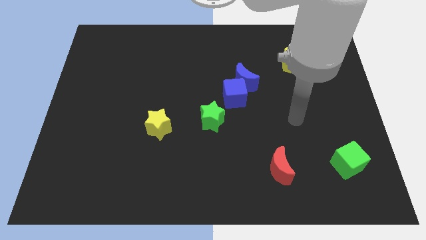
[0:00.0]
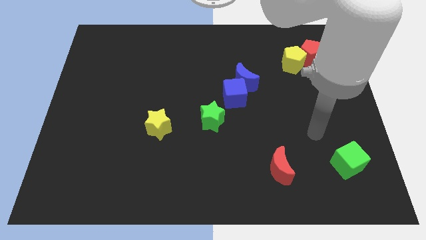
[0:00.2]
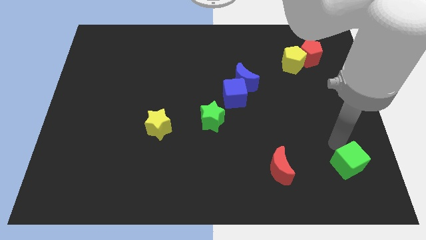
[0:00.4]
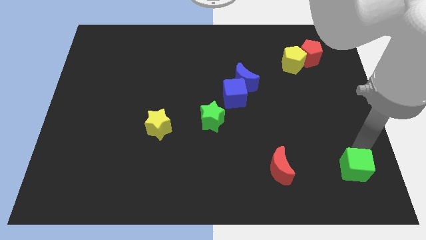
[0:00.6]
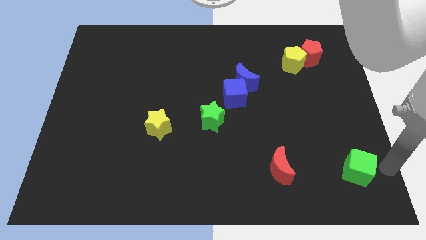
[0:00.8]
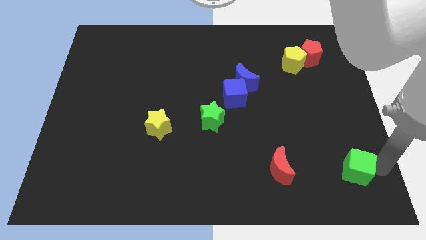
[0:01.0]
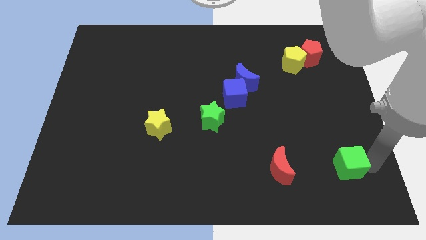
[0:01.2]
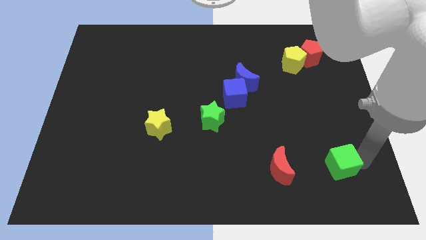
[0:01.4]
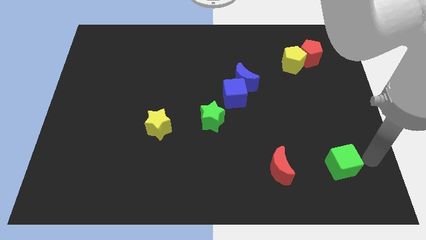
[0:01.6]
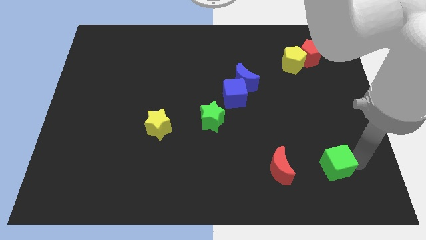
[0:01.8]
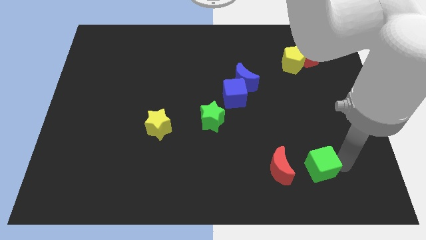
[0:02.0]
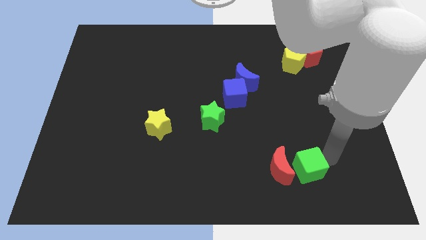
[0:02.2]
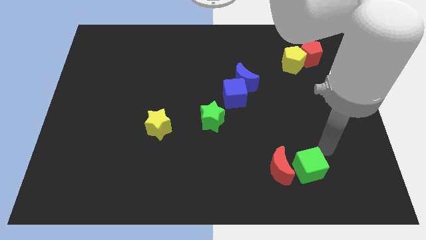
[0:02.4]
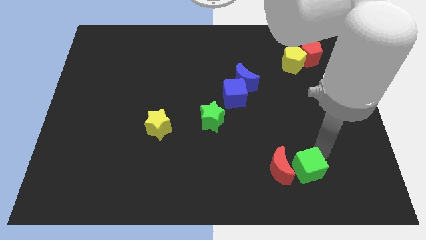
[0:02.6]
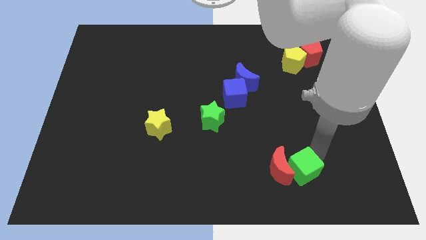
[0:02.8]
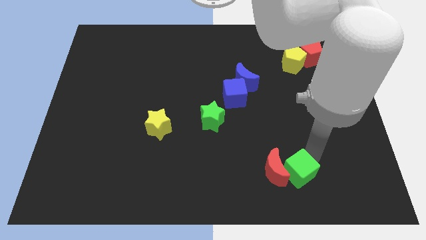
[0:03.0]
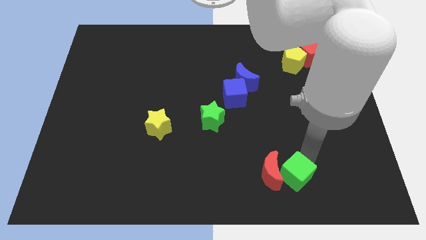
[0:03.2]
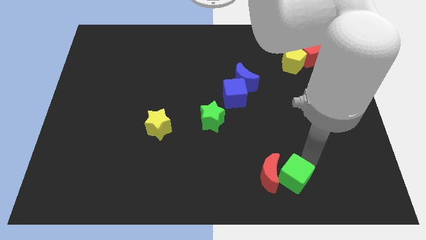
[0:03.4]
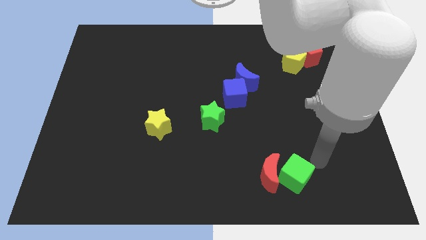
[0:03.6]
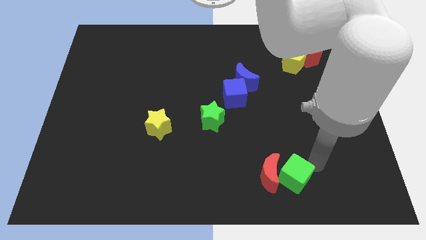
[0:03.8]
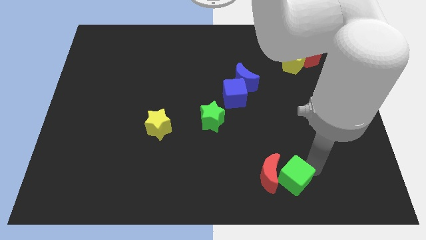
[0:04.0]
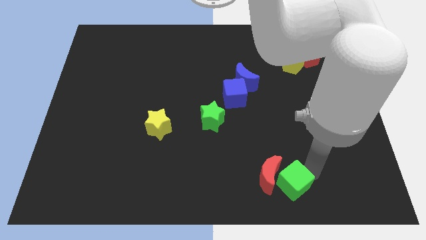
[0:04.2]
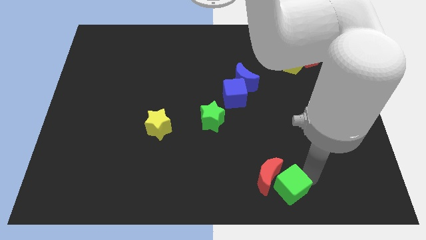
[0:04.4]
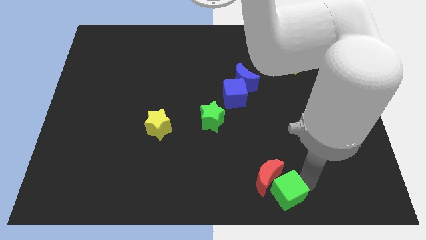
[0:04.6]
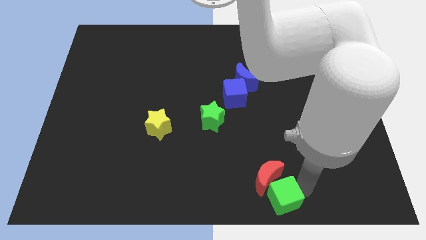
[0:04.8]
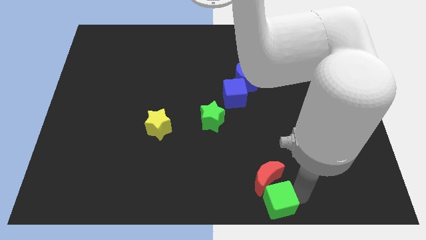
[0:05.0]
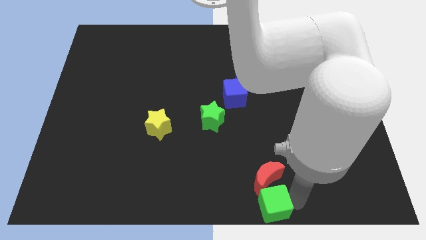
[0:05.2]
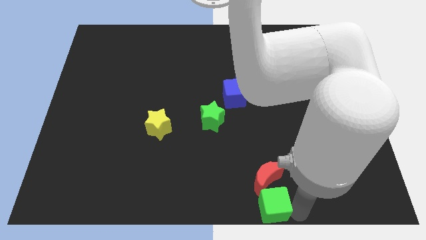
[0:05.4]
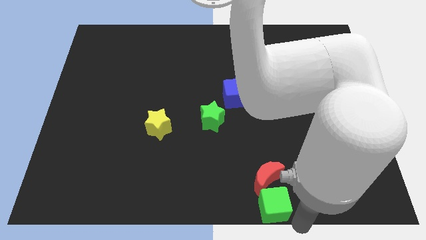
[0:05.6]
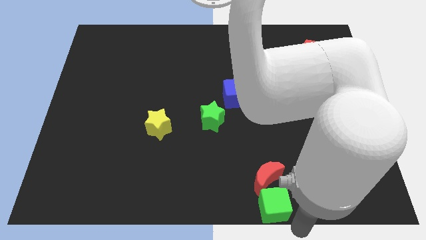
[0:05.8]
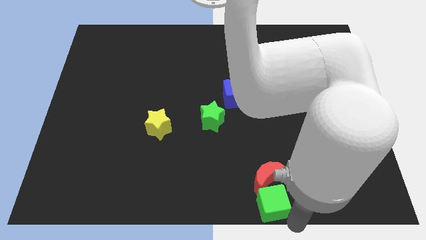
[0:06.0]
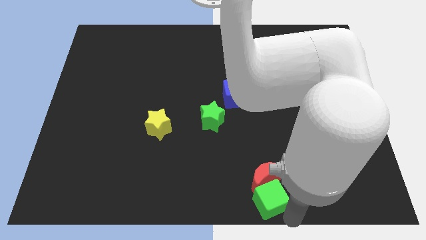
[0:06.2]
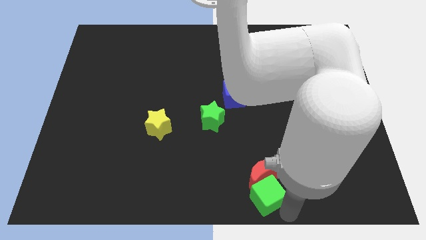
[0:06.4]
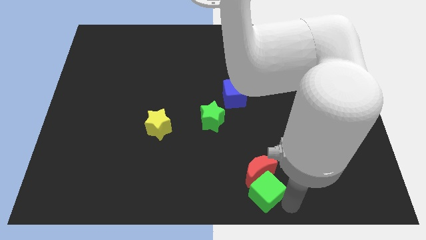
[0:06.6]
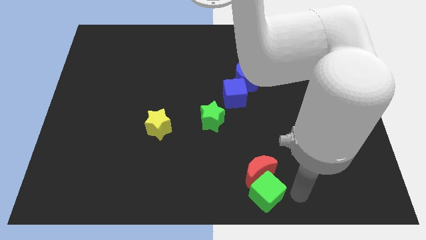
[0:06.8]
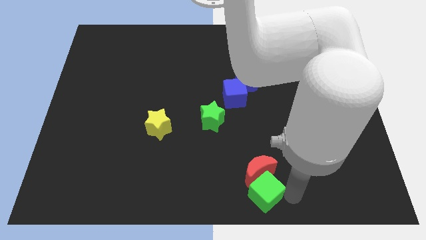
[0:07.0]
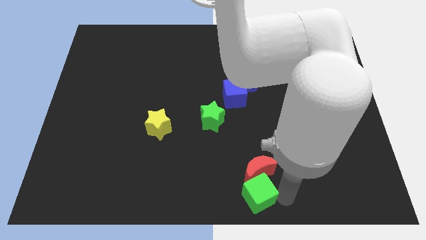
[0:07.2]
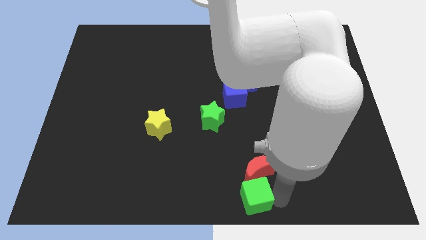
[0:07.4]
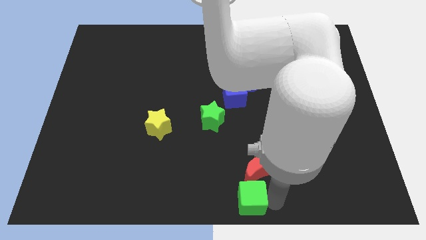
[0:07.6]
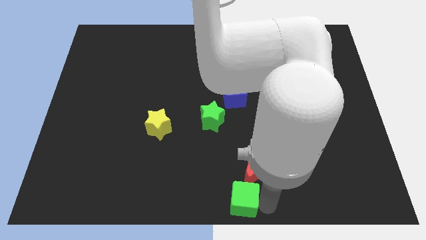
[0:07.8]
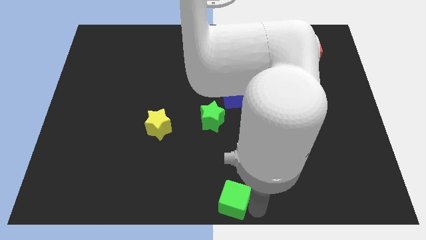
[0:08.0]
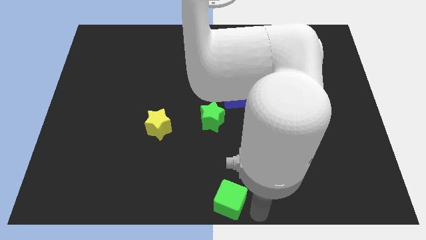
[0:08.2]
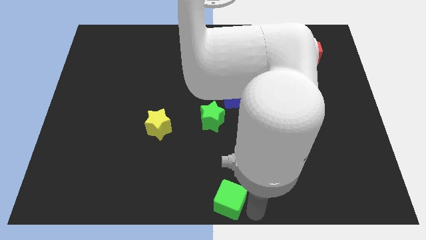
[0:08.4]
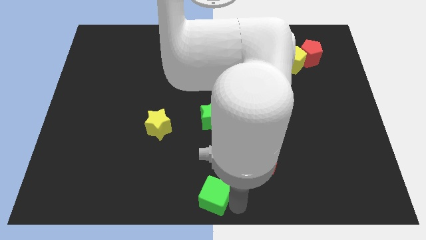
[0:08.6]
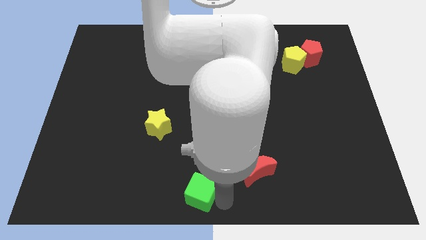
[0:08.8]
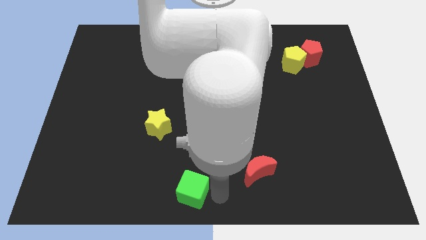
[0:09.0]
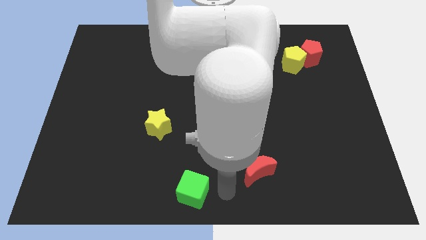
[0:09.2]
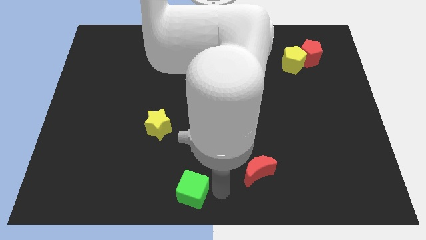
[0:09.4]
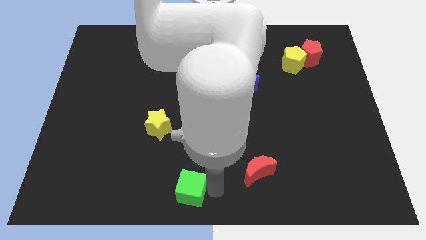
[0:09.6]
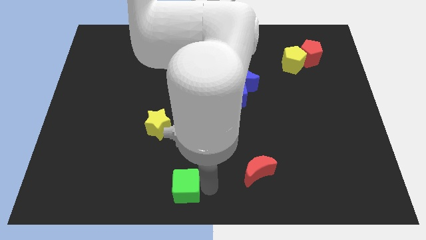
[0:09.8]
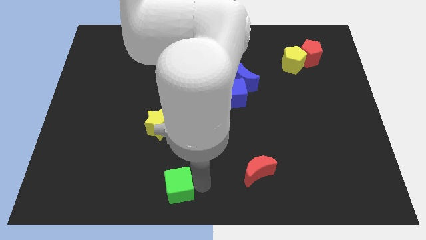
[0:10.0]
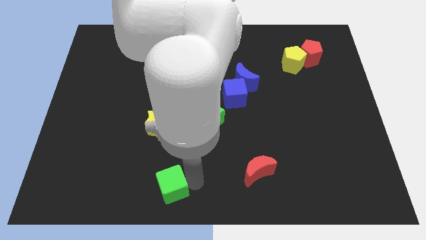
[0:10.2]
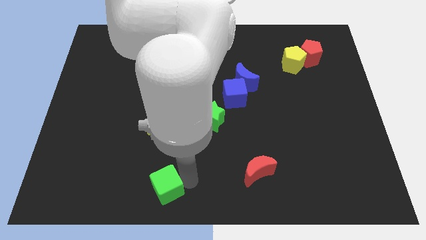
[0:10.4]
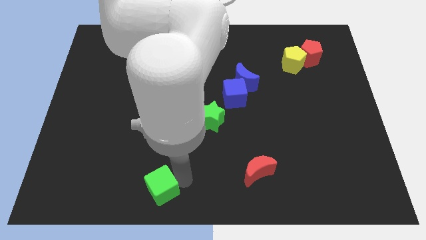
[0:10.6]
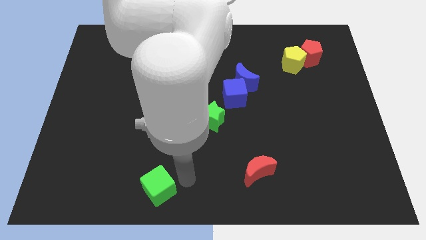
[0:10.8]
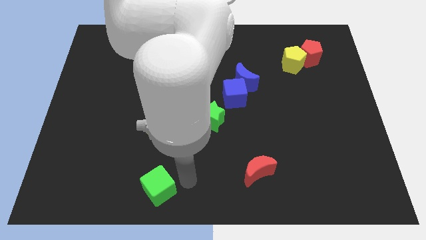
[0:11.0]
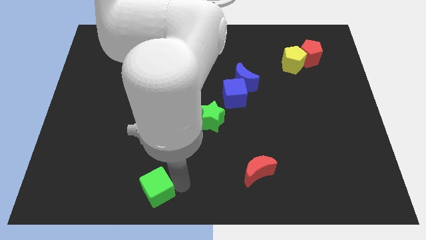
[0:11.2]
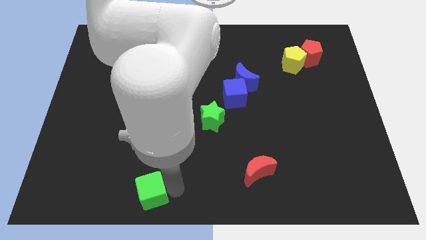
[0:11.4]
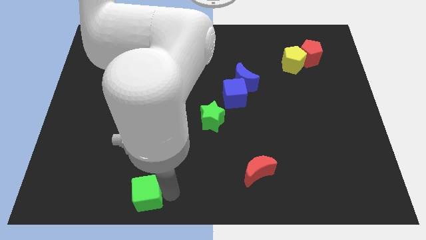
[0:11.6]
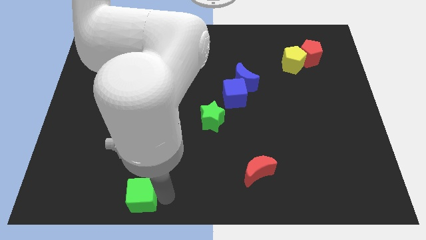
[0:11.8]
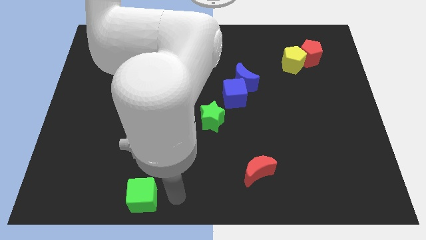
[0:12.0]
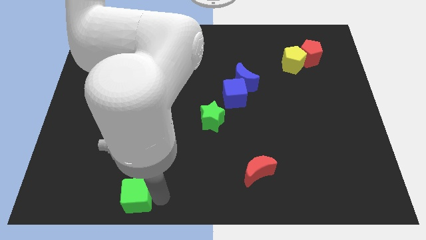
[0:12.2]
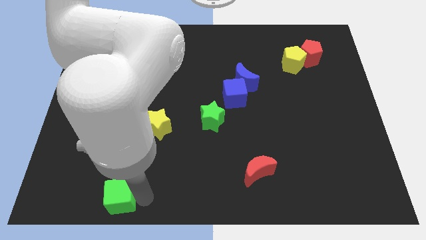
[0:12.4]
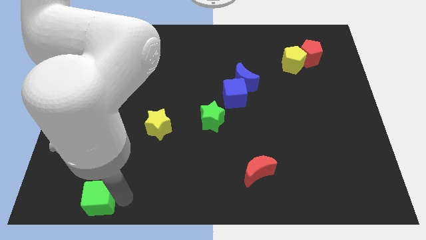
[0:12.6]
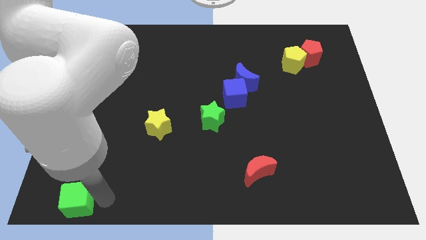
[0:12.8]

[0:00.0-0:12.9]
move the green cube to the lower left corner
